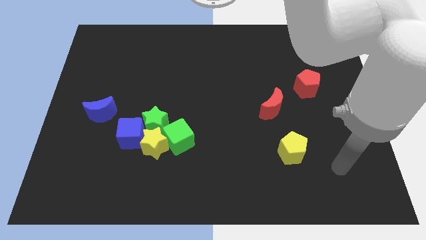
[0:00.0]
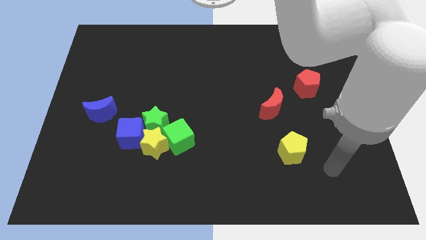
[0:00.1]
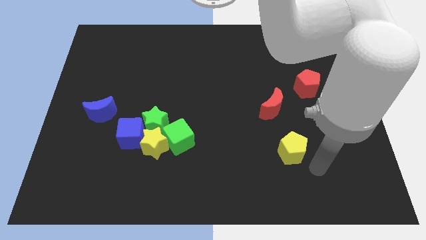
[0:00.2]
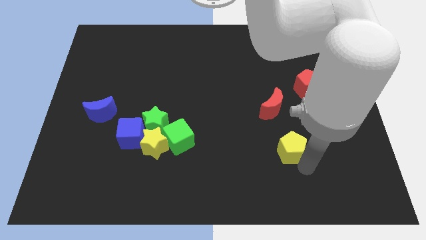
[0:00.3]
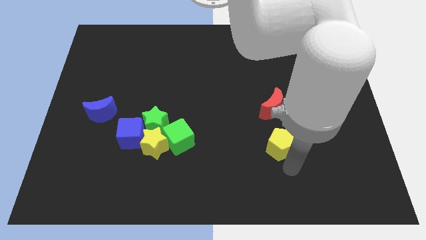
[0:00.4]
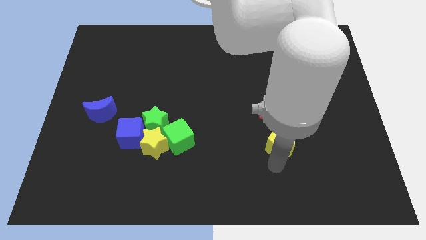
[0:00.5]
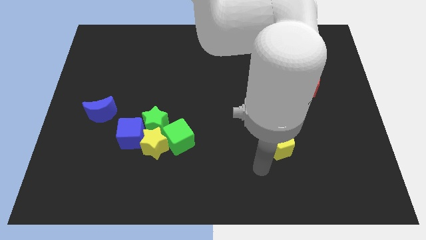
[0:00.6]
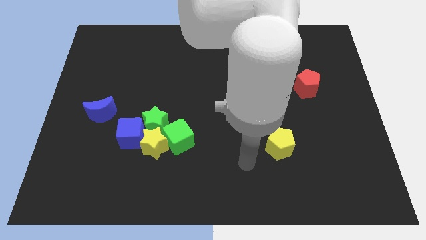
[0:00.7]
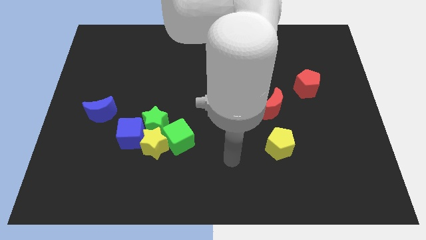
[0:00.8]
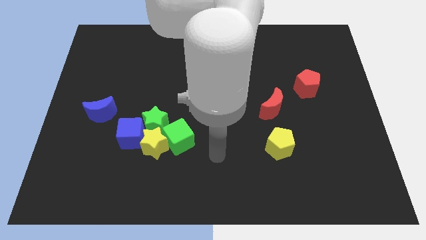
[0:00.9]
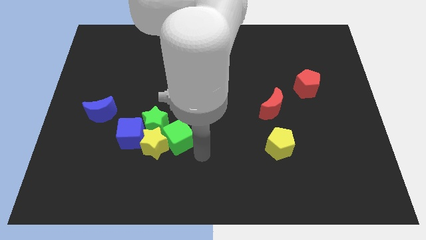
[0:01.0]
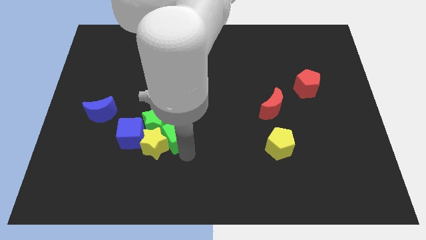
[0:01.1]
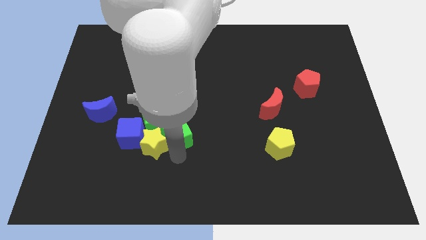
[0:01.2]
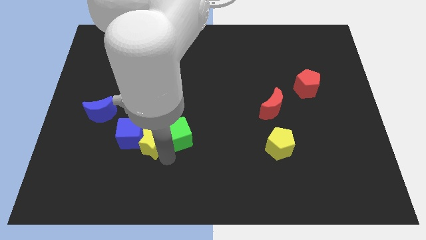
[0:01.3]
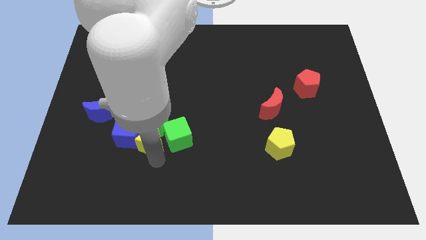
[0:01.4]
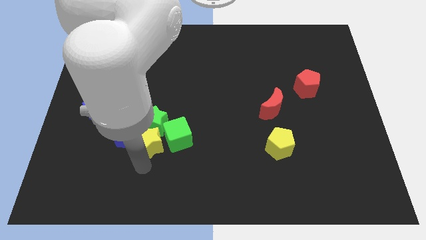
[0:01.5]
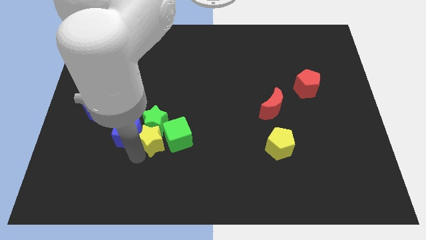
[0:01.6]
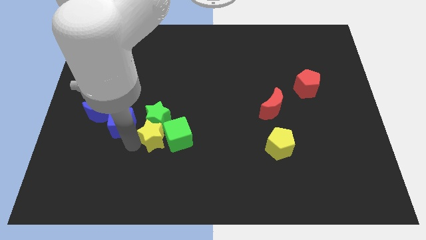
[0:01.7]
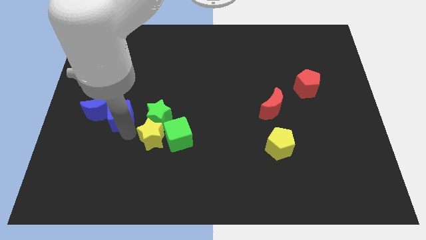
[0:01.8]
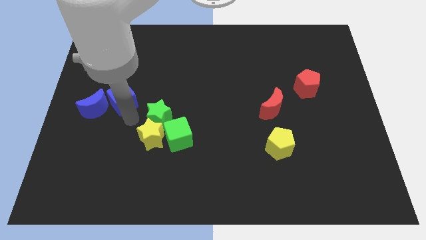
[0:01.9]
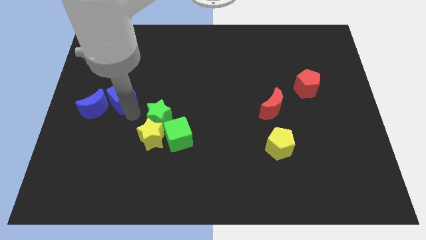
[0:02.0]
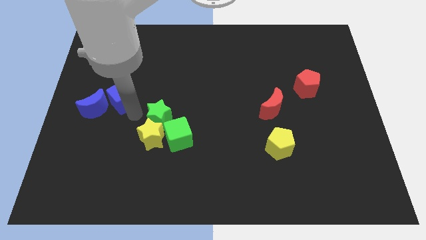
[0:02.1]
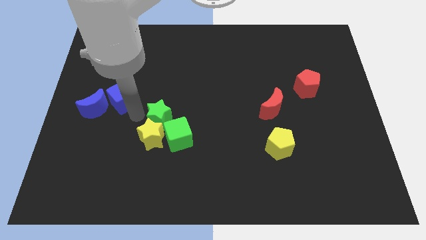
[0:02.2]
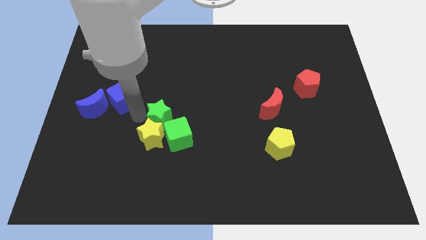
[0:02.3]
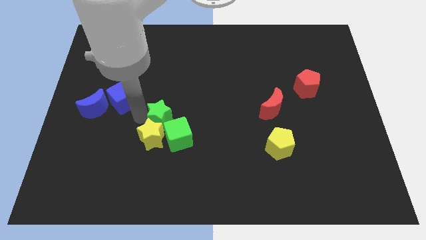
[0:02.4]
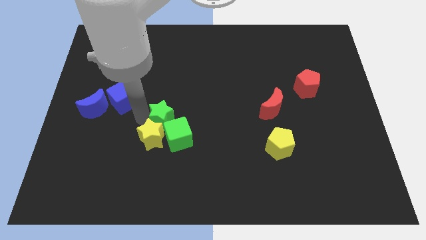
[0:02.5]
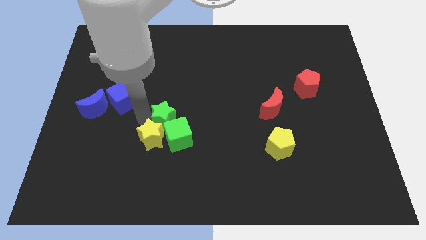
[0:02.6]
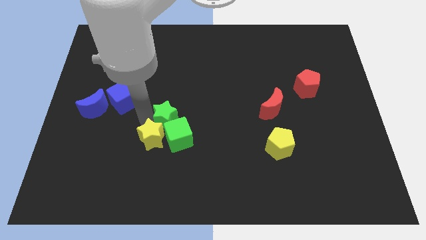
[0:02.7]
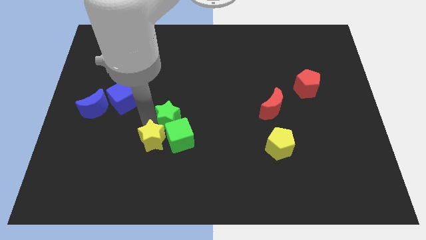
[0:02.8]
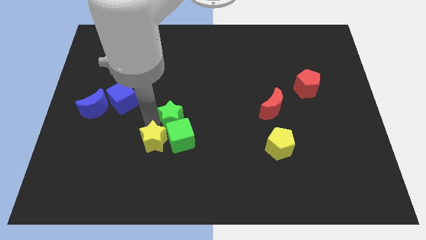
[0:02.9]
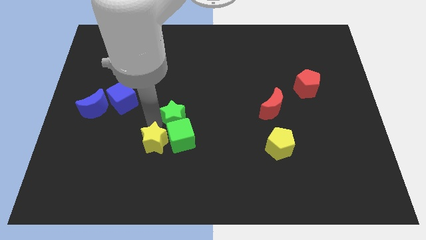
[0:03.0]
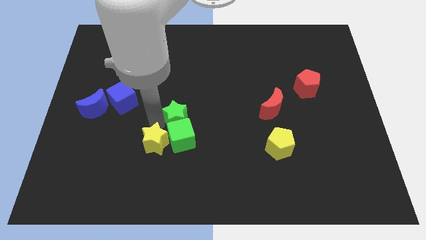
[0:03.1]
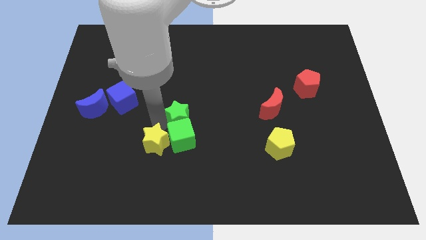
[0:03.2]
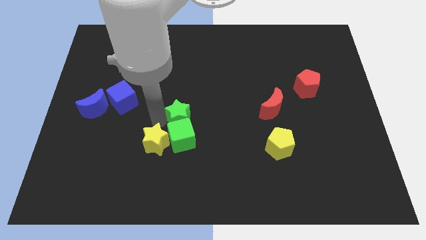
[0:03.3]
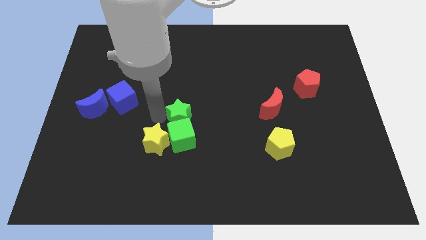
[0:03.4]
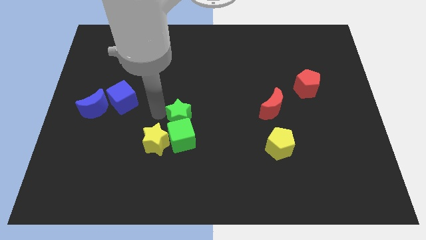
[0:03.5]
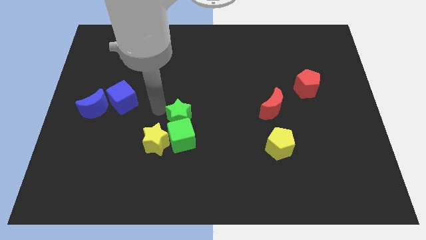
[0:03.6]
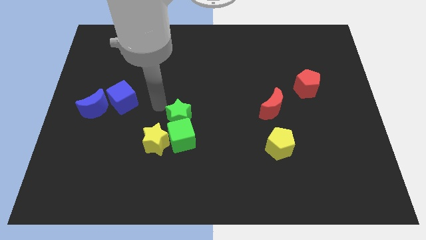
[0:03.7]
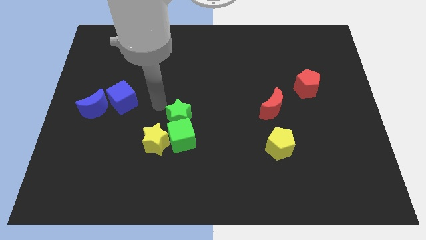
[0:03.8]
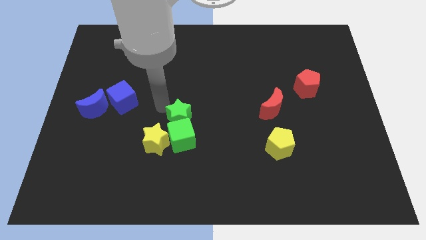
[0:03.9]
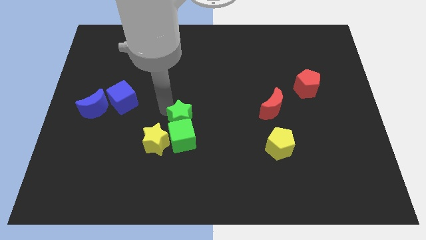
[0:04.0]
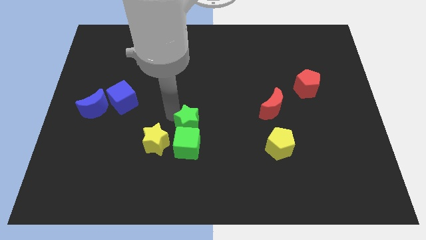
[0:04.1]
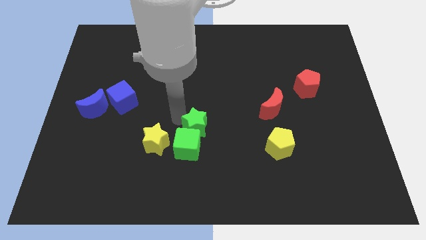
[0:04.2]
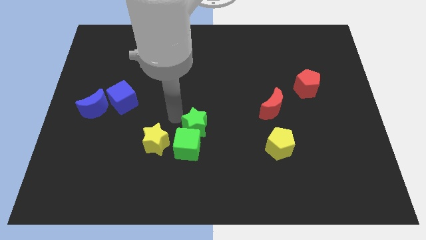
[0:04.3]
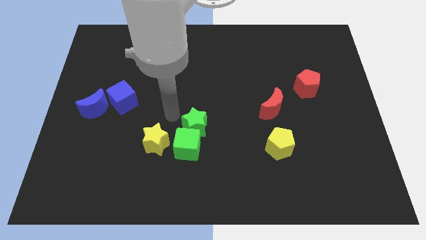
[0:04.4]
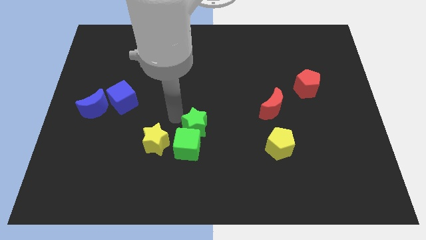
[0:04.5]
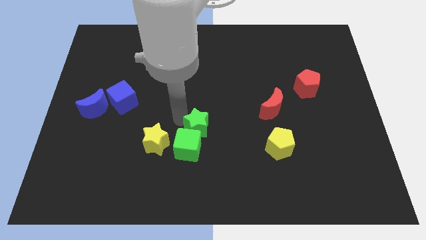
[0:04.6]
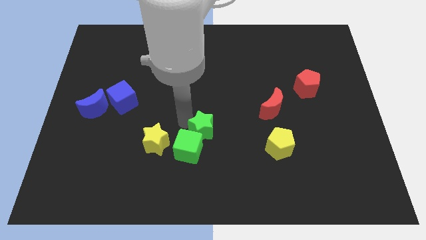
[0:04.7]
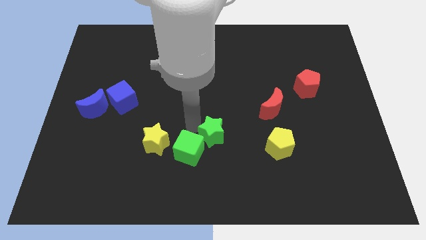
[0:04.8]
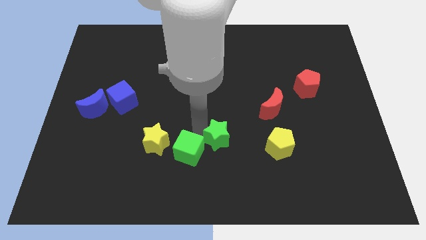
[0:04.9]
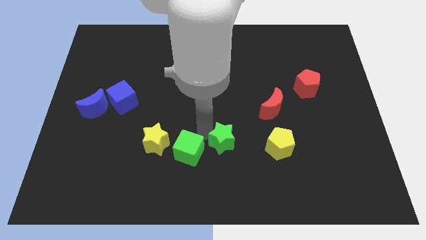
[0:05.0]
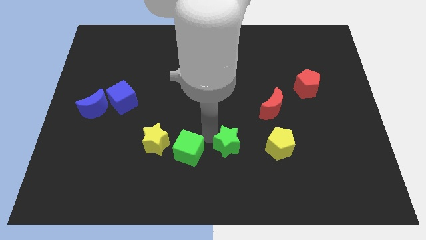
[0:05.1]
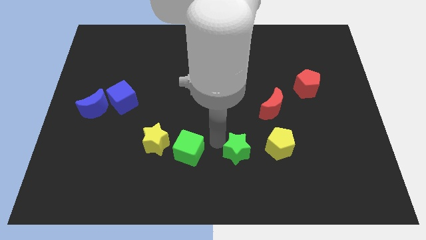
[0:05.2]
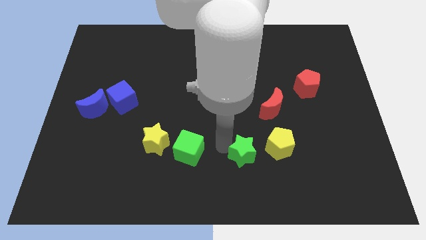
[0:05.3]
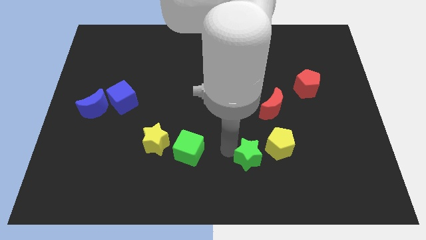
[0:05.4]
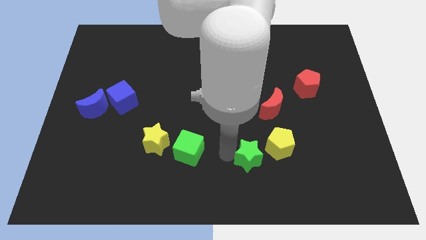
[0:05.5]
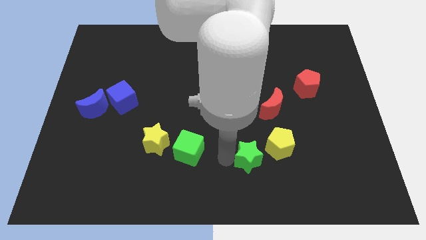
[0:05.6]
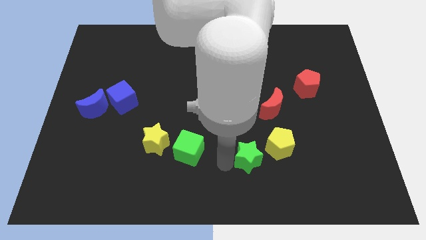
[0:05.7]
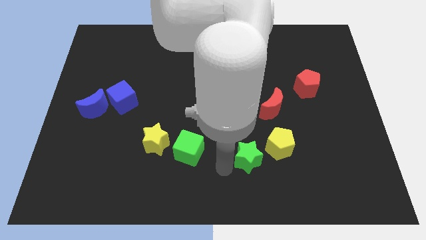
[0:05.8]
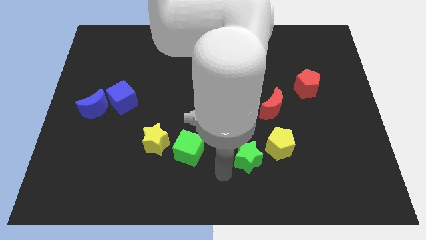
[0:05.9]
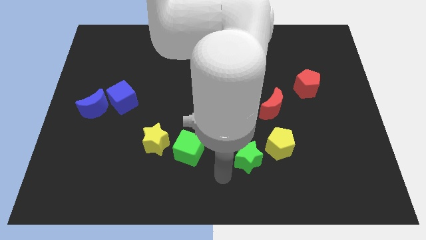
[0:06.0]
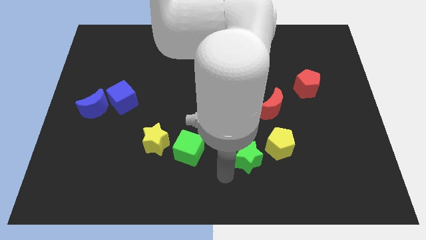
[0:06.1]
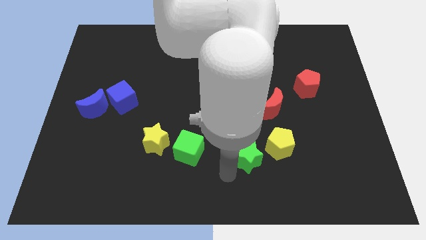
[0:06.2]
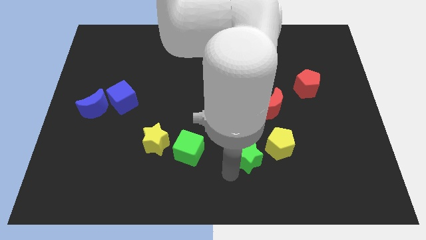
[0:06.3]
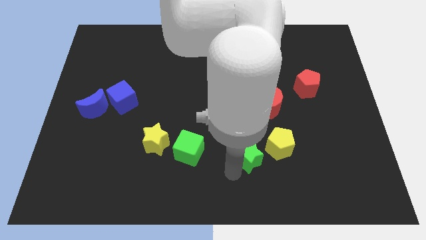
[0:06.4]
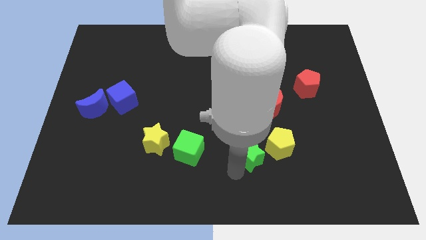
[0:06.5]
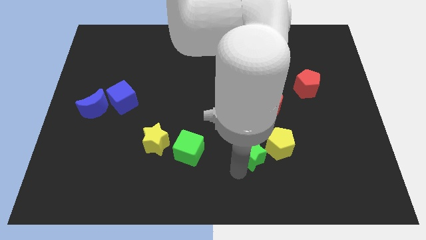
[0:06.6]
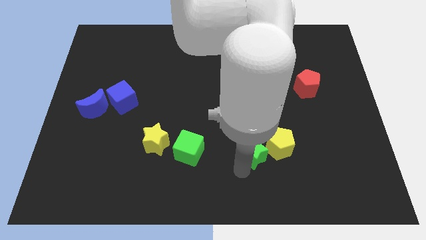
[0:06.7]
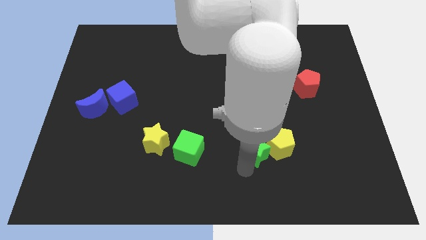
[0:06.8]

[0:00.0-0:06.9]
move the green star towards the yellow pentagon
